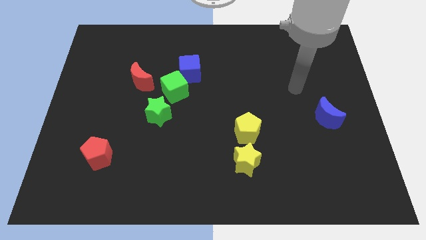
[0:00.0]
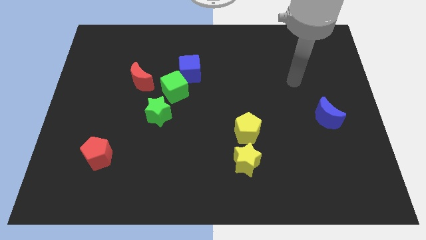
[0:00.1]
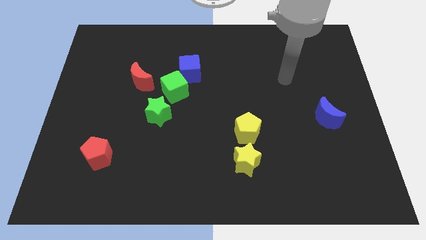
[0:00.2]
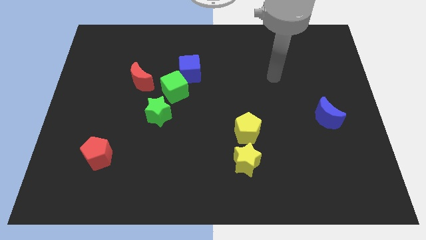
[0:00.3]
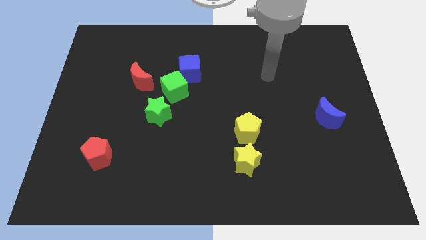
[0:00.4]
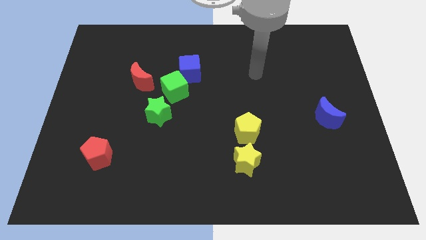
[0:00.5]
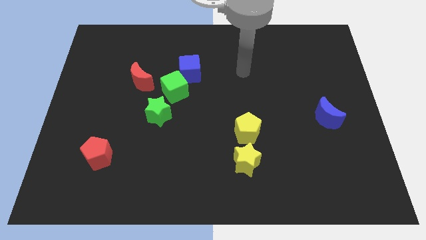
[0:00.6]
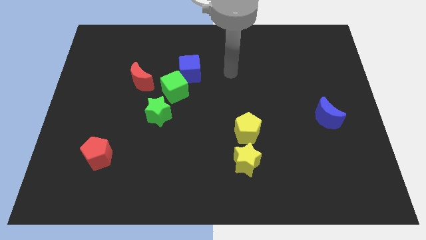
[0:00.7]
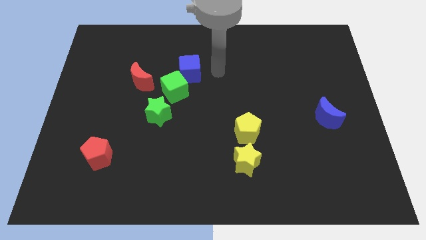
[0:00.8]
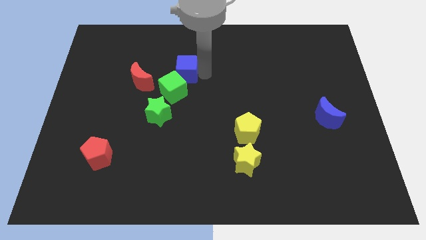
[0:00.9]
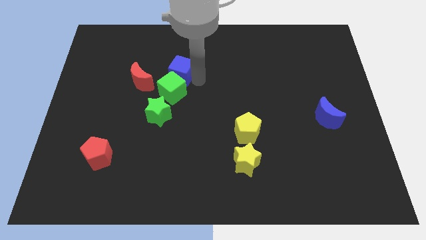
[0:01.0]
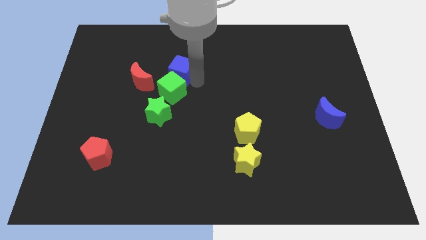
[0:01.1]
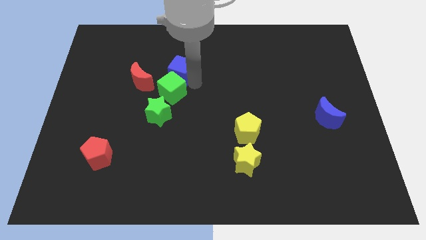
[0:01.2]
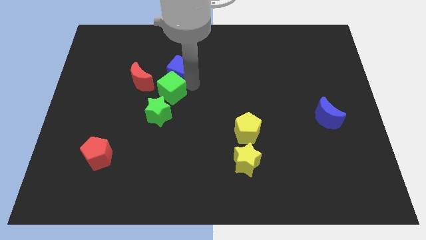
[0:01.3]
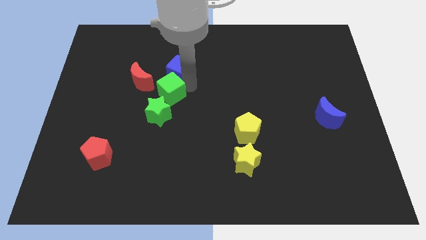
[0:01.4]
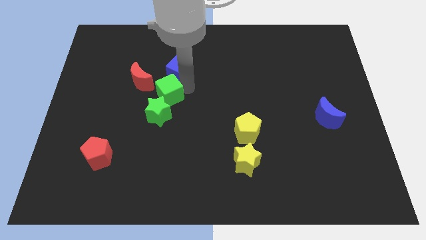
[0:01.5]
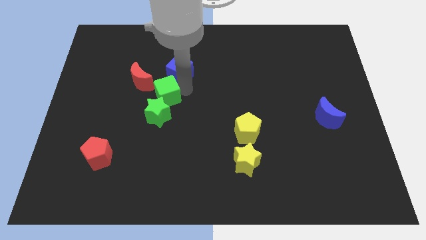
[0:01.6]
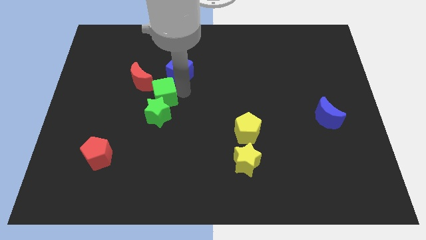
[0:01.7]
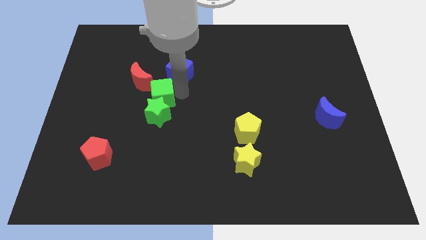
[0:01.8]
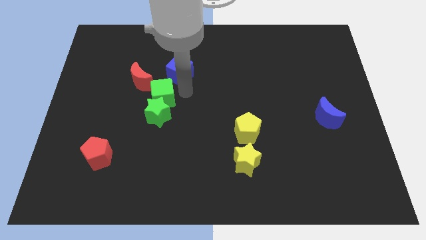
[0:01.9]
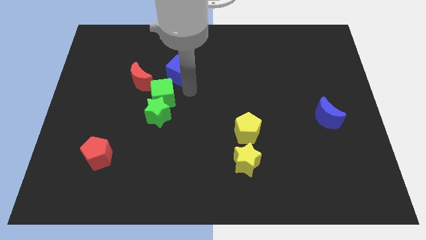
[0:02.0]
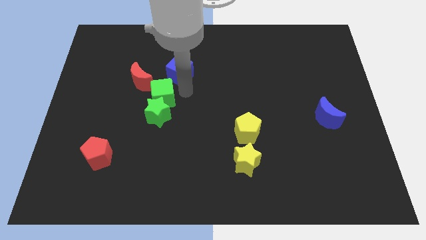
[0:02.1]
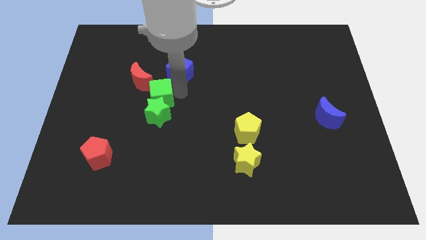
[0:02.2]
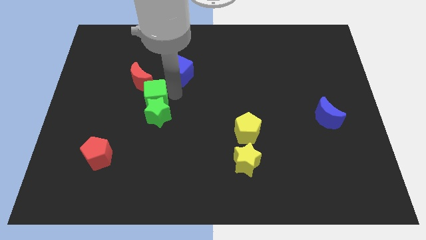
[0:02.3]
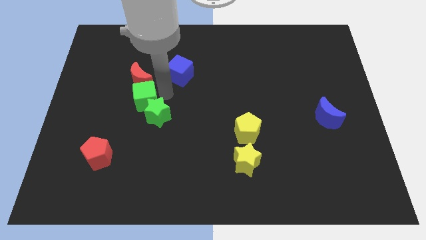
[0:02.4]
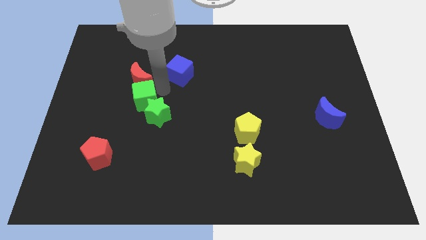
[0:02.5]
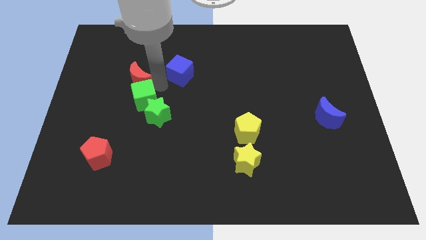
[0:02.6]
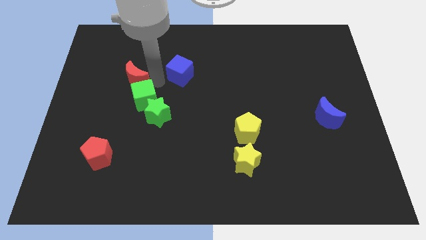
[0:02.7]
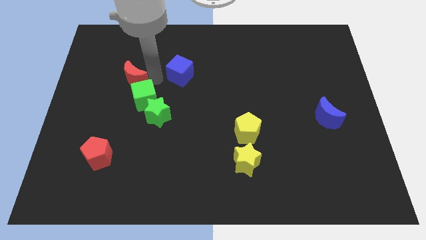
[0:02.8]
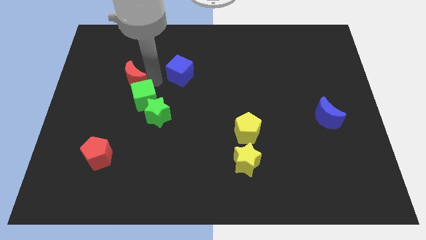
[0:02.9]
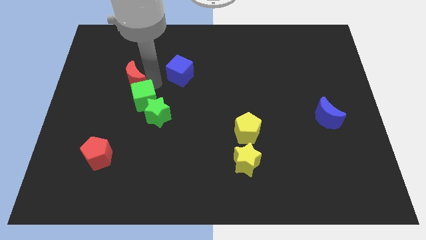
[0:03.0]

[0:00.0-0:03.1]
slightly push the green cube diagonally downwards and to the left

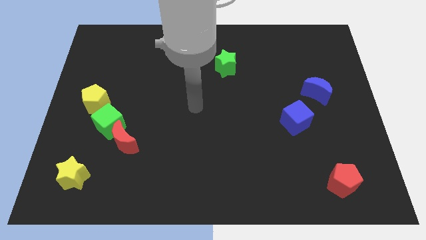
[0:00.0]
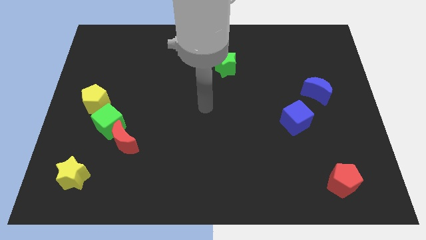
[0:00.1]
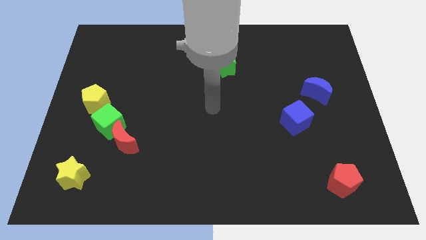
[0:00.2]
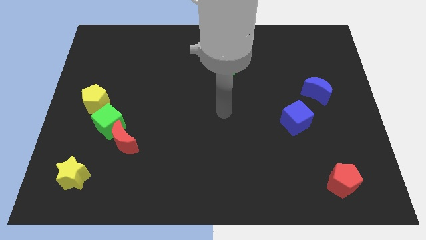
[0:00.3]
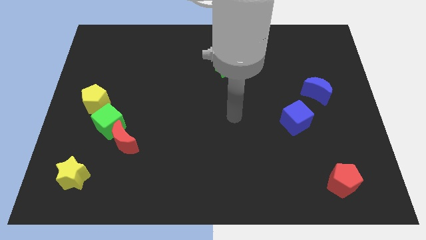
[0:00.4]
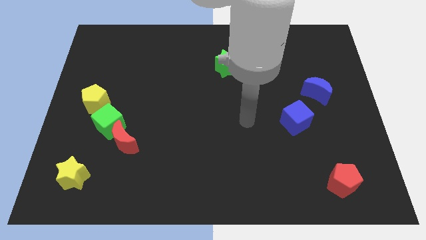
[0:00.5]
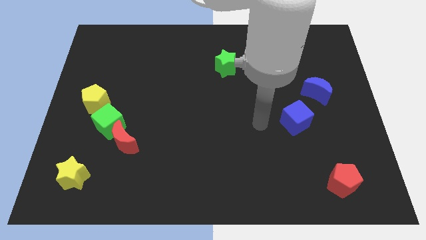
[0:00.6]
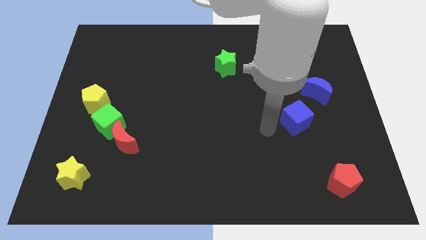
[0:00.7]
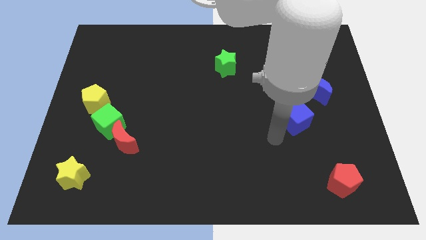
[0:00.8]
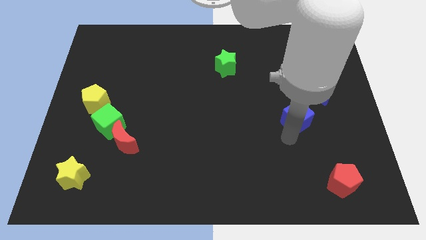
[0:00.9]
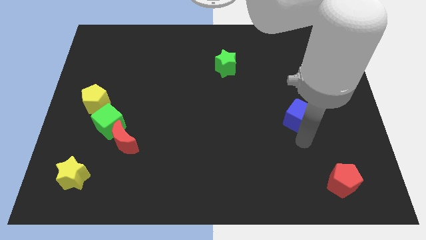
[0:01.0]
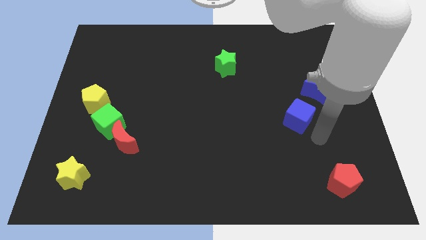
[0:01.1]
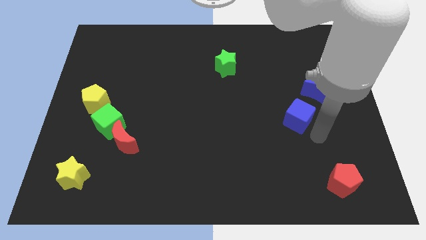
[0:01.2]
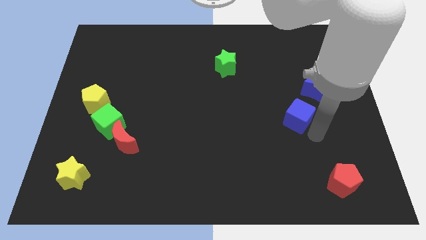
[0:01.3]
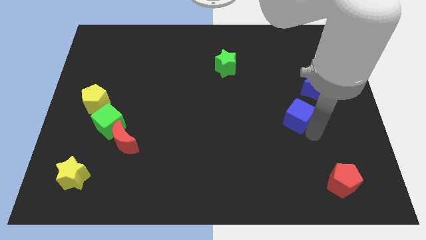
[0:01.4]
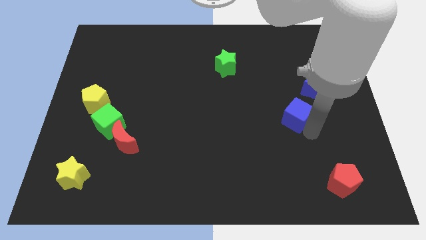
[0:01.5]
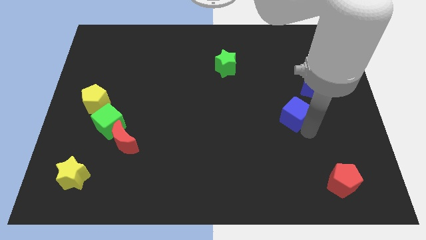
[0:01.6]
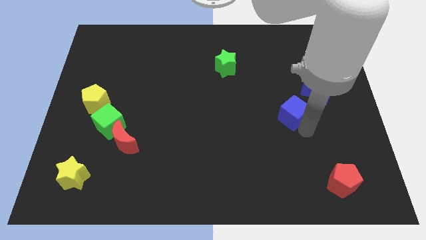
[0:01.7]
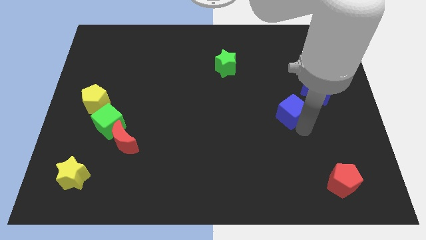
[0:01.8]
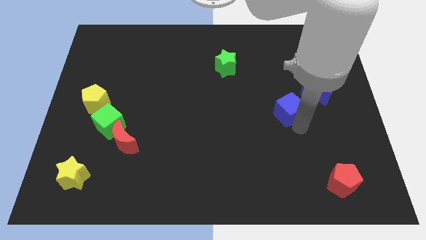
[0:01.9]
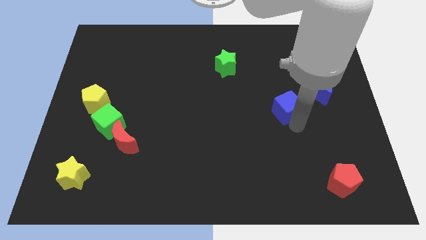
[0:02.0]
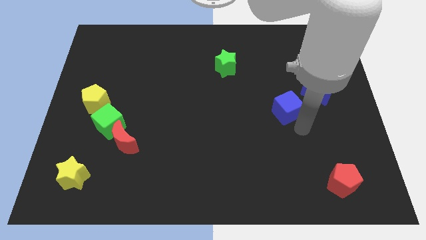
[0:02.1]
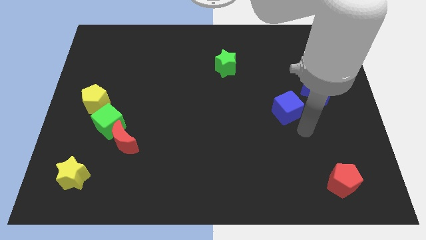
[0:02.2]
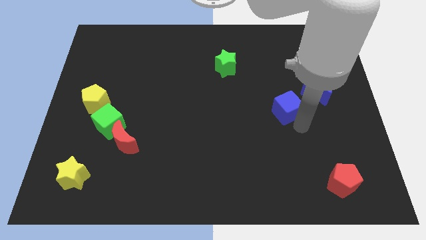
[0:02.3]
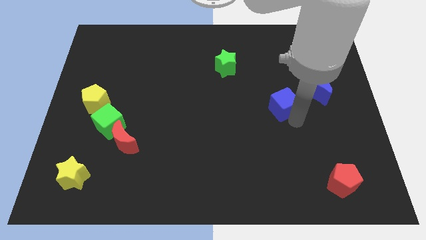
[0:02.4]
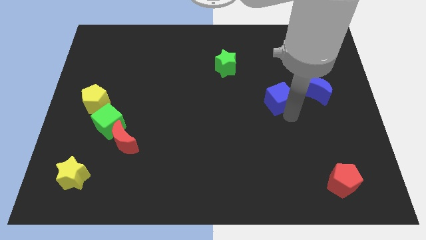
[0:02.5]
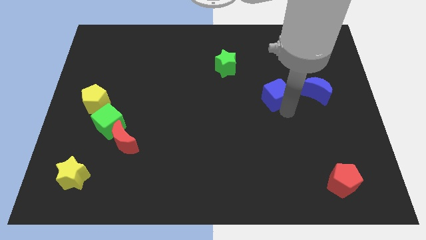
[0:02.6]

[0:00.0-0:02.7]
move the blue cube diagonally upwards and left somewhat

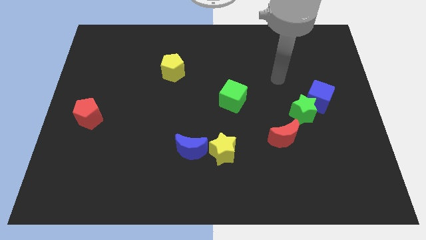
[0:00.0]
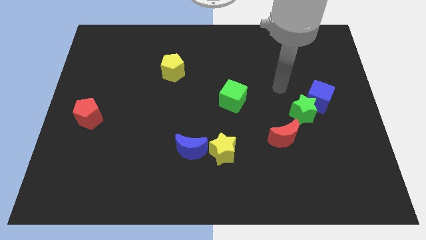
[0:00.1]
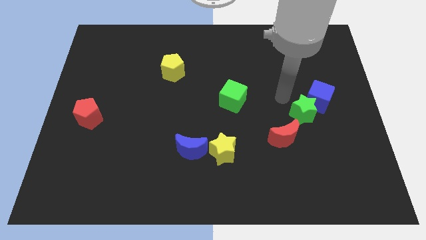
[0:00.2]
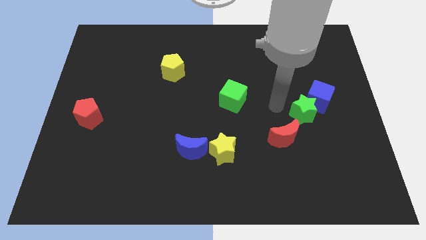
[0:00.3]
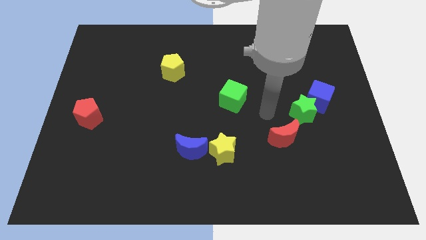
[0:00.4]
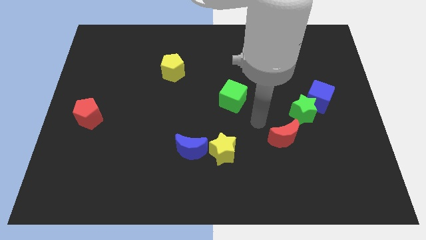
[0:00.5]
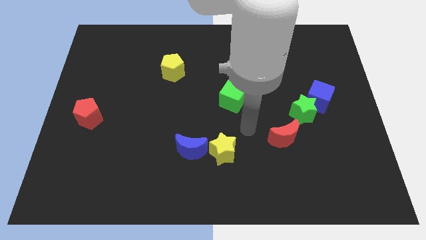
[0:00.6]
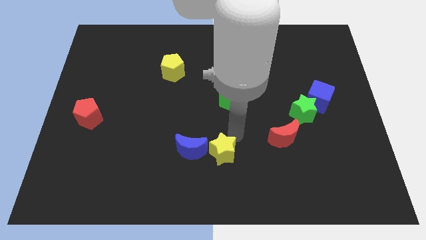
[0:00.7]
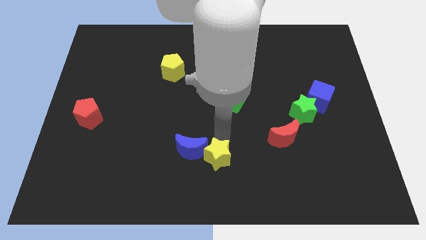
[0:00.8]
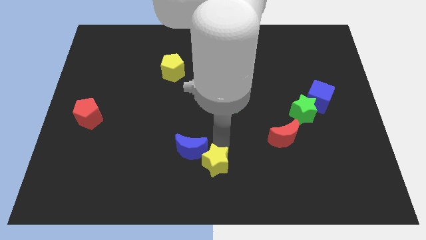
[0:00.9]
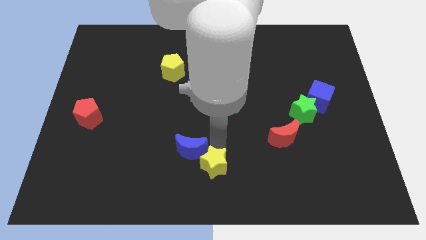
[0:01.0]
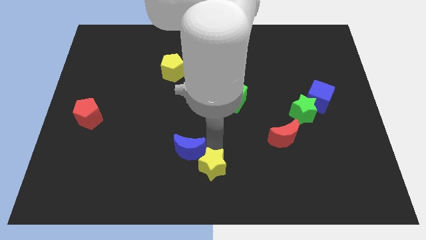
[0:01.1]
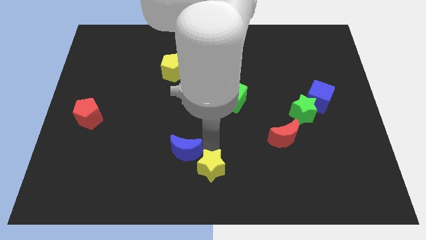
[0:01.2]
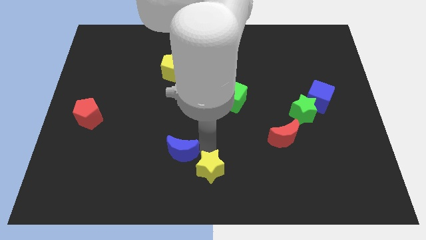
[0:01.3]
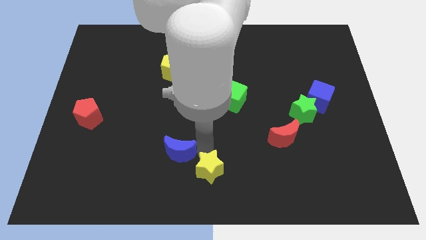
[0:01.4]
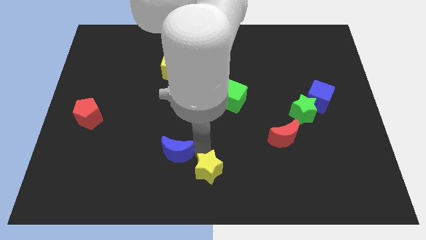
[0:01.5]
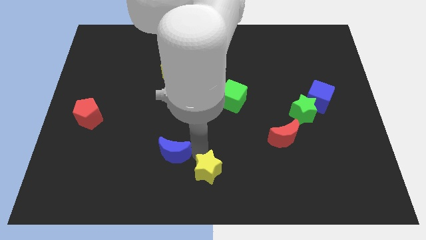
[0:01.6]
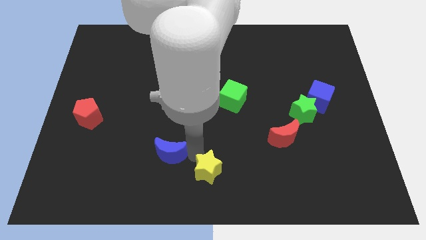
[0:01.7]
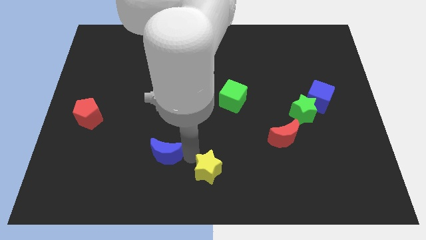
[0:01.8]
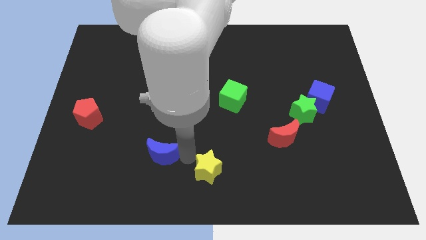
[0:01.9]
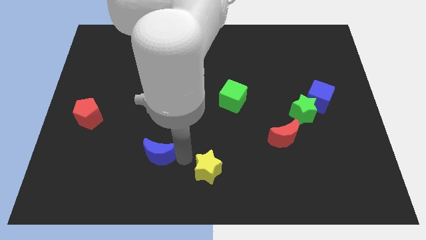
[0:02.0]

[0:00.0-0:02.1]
slightly move the blue moon to the left
